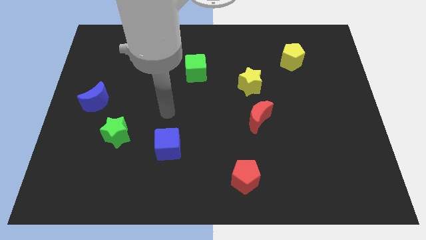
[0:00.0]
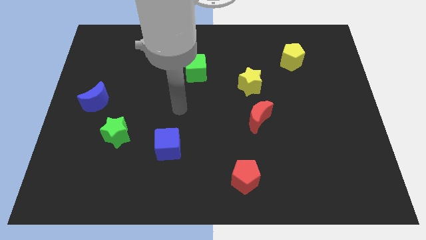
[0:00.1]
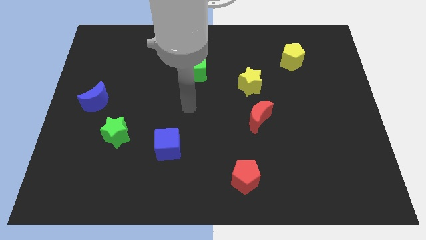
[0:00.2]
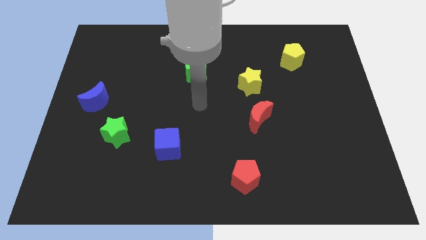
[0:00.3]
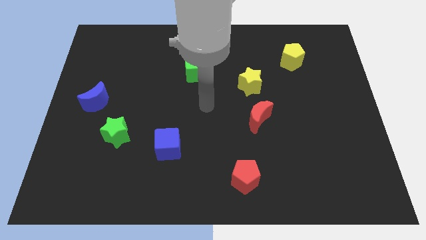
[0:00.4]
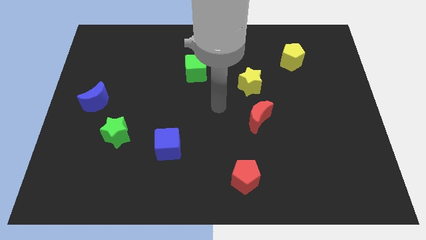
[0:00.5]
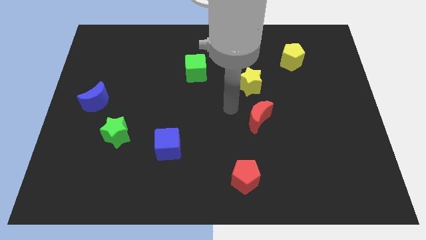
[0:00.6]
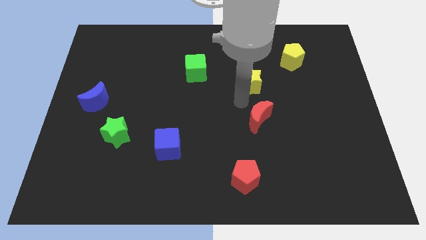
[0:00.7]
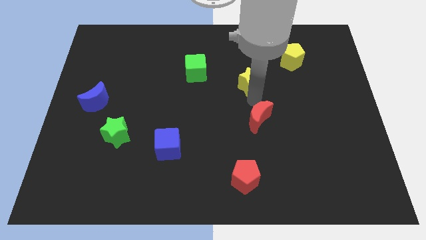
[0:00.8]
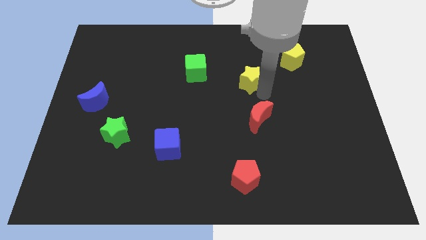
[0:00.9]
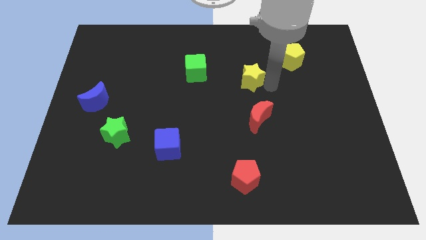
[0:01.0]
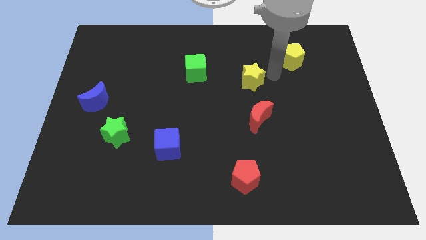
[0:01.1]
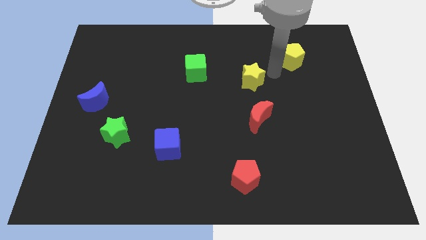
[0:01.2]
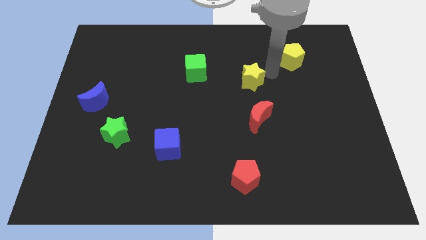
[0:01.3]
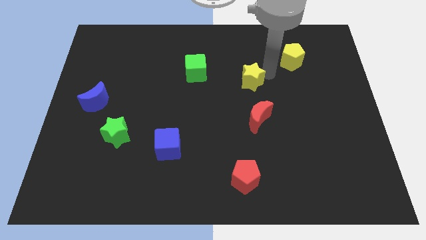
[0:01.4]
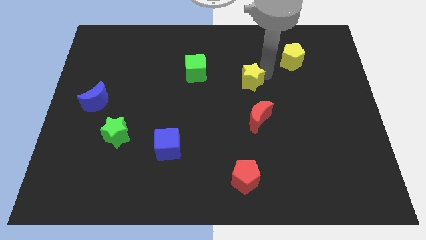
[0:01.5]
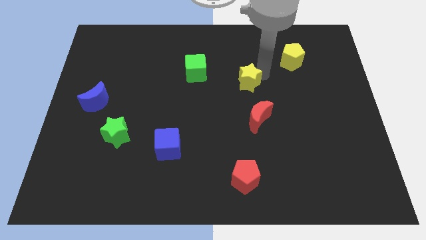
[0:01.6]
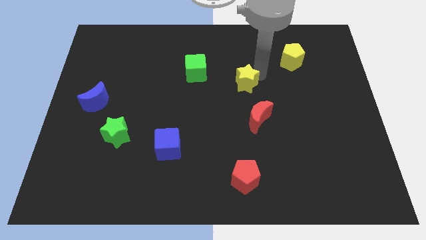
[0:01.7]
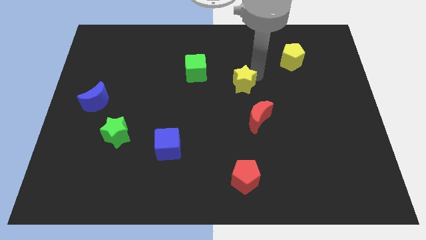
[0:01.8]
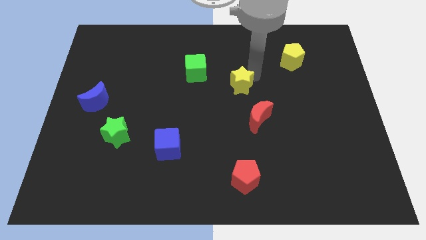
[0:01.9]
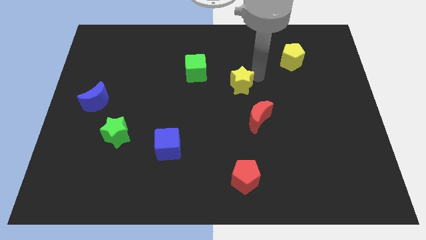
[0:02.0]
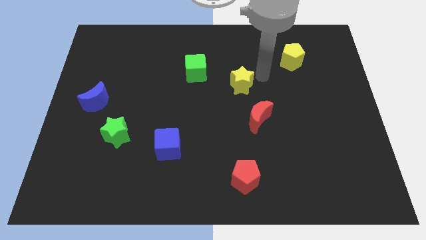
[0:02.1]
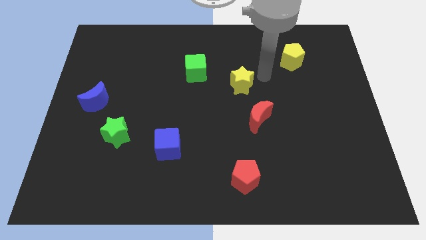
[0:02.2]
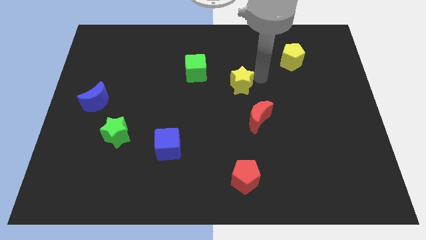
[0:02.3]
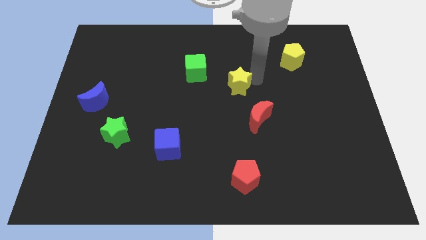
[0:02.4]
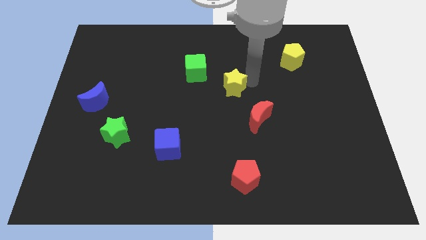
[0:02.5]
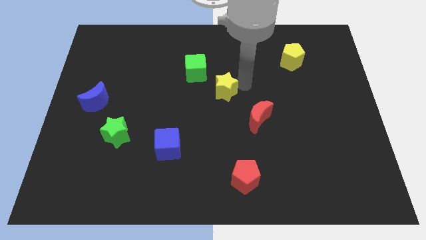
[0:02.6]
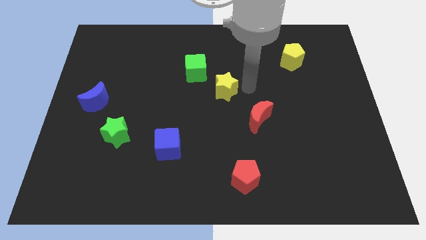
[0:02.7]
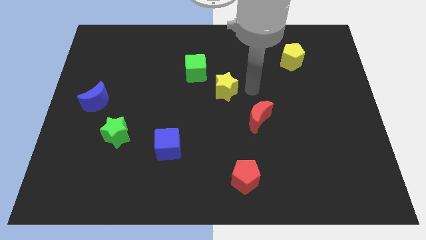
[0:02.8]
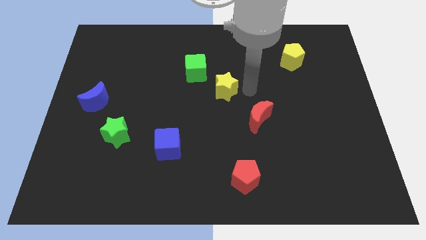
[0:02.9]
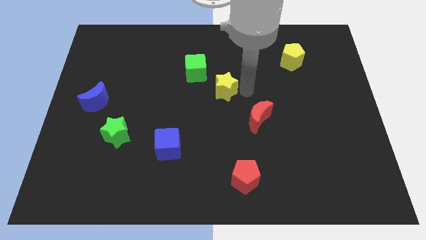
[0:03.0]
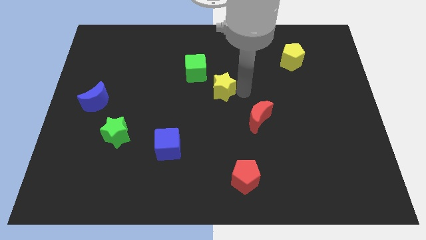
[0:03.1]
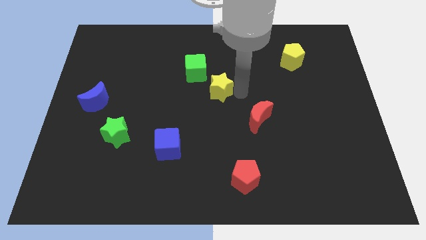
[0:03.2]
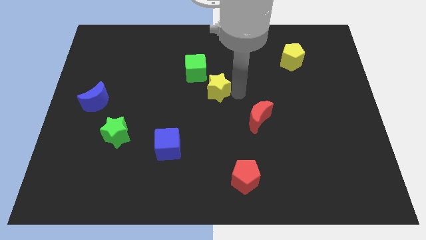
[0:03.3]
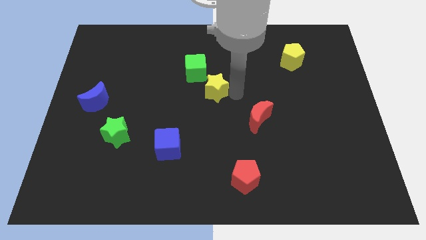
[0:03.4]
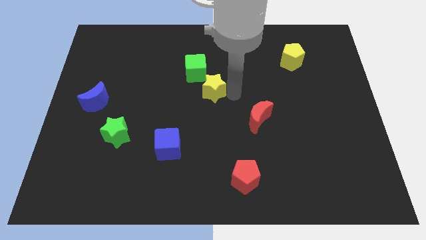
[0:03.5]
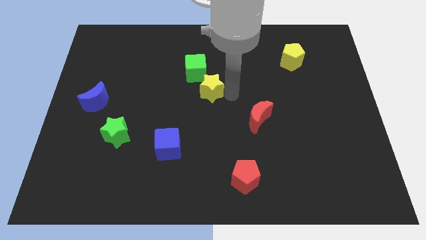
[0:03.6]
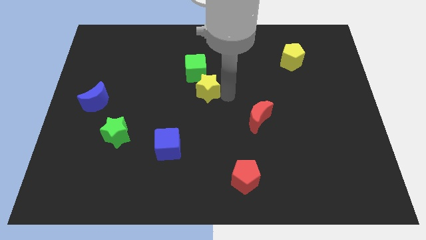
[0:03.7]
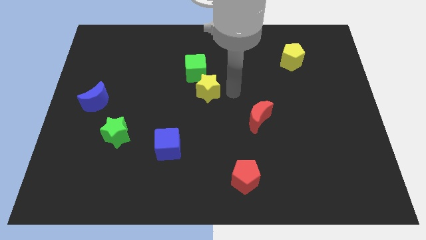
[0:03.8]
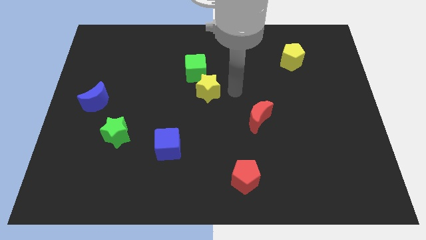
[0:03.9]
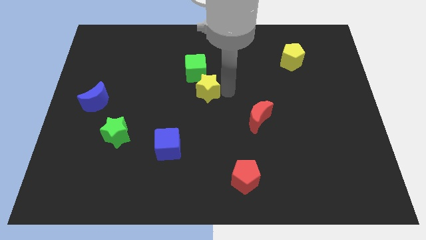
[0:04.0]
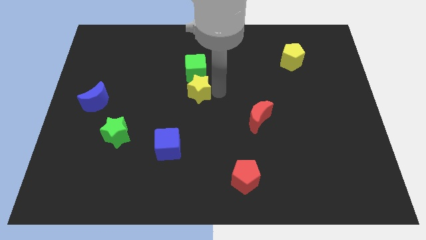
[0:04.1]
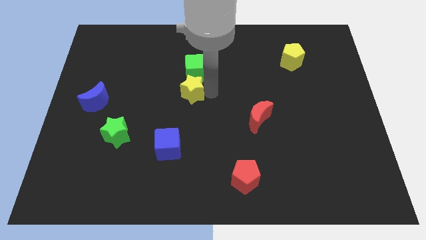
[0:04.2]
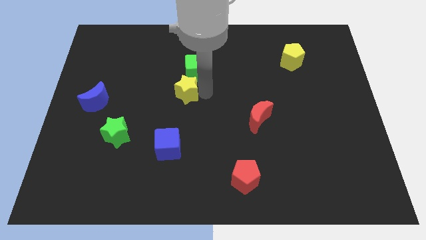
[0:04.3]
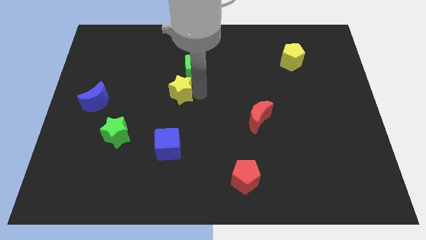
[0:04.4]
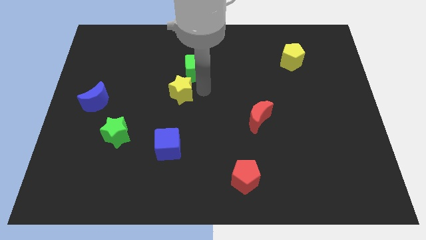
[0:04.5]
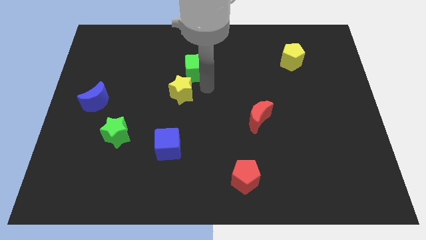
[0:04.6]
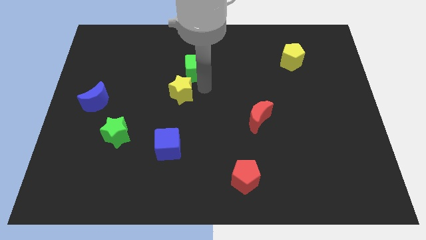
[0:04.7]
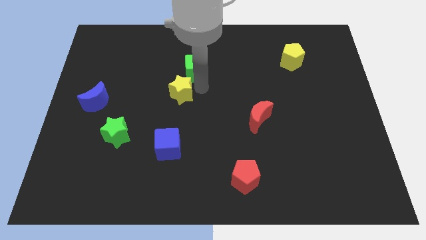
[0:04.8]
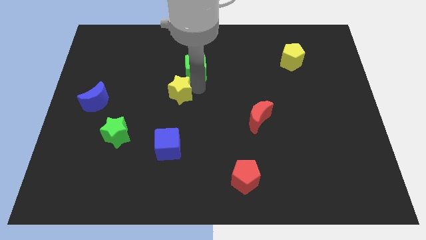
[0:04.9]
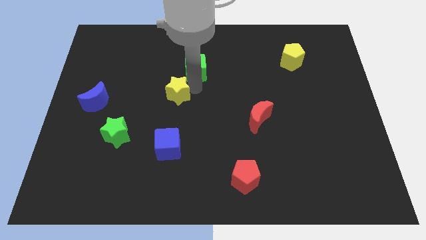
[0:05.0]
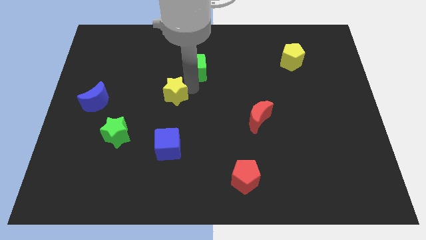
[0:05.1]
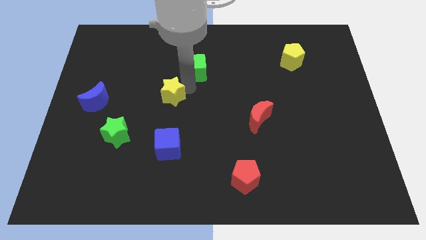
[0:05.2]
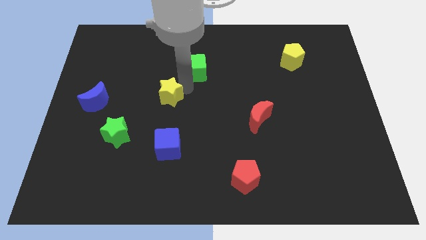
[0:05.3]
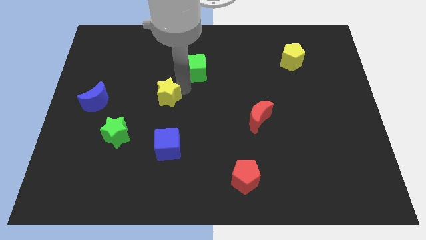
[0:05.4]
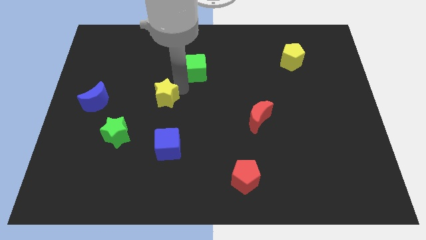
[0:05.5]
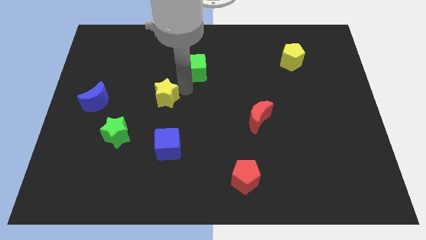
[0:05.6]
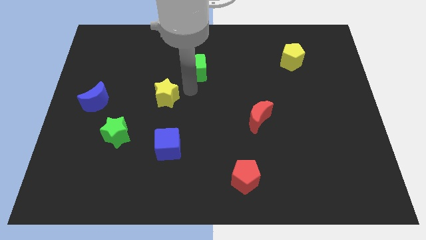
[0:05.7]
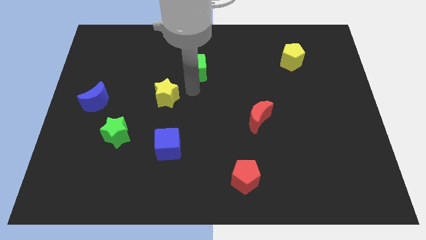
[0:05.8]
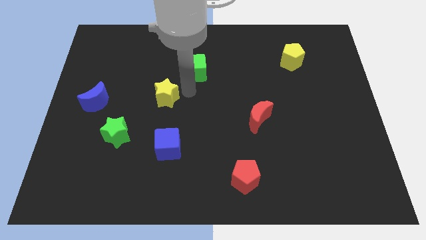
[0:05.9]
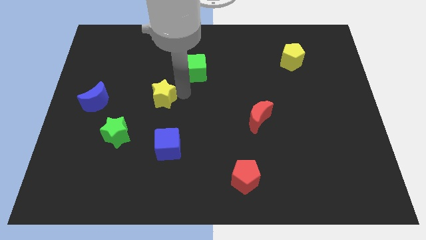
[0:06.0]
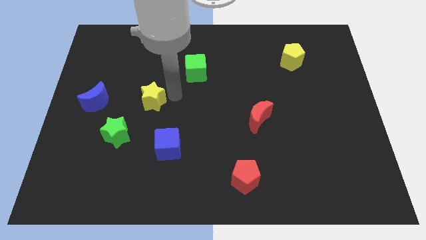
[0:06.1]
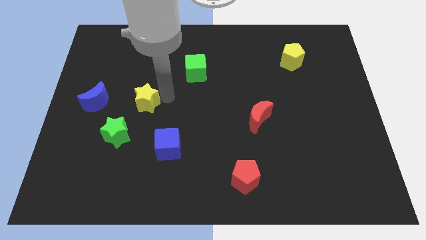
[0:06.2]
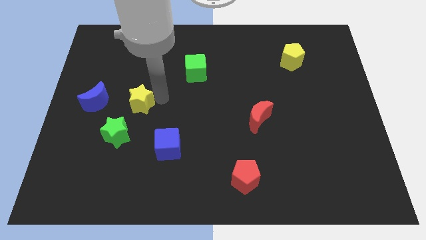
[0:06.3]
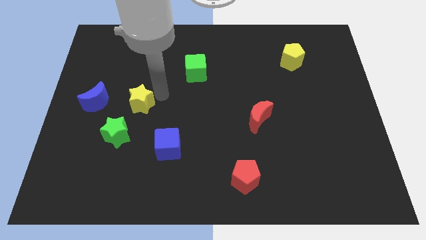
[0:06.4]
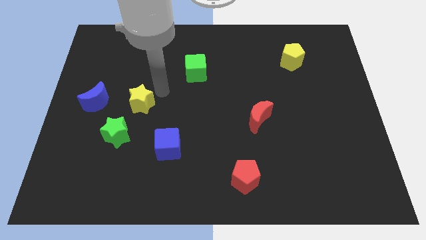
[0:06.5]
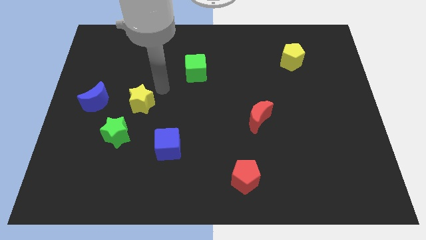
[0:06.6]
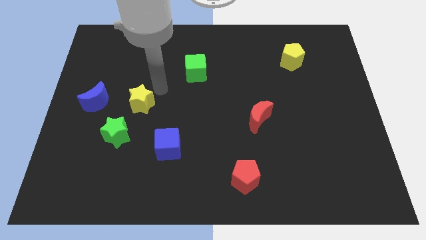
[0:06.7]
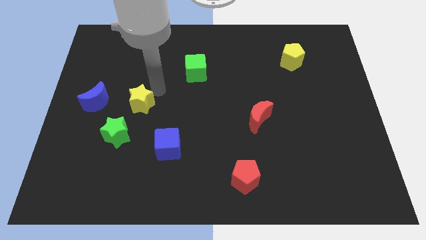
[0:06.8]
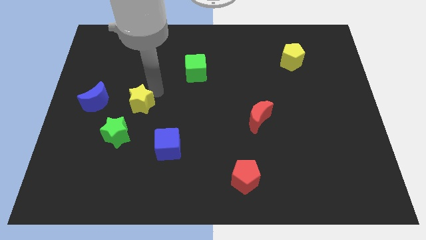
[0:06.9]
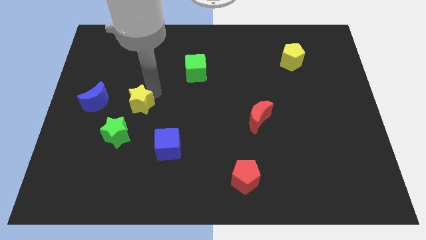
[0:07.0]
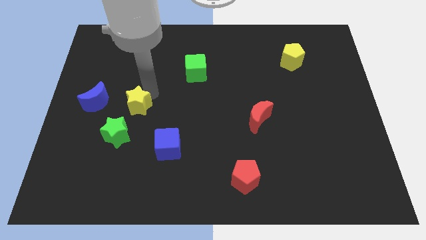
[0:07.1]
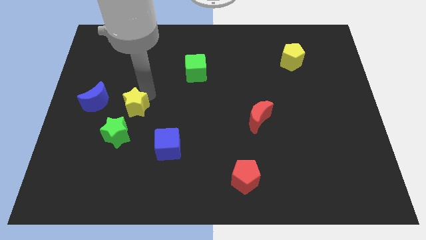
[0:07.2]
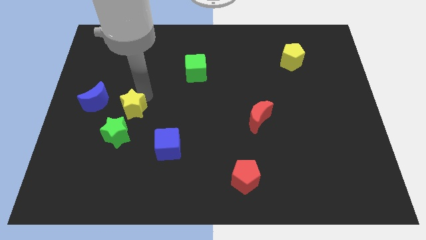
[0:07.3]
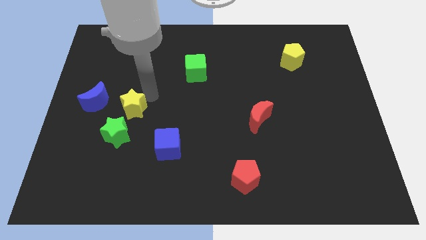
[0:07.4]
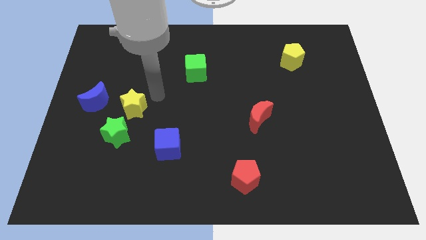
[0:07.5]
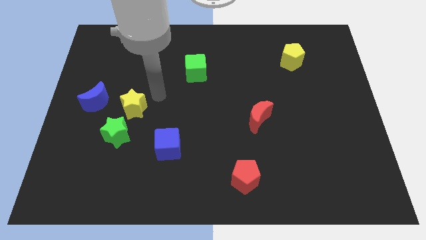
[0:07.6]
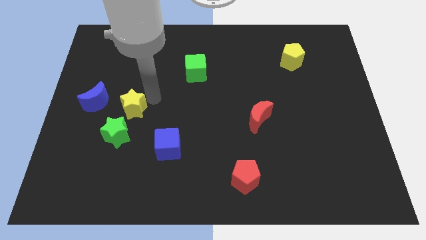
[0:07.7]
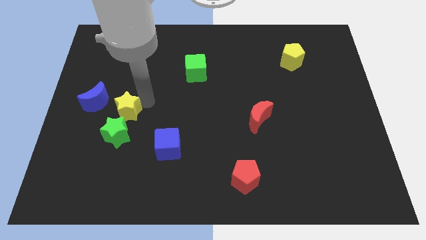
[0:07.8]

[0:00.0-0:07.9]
slide the yellow star to the bottom right of the blue moon
